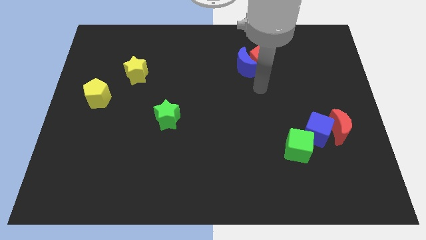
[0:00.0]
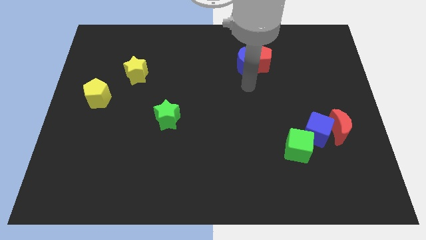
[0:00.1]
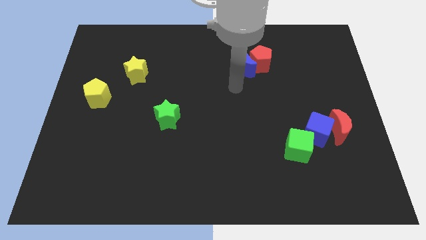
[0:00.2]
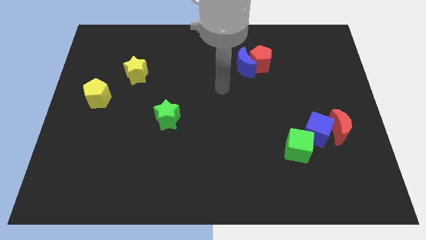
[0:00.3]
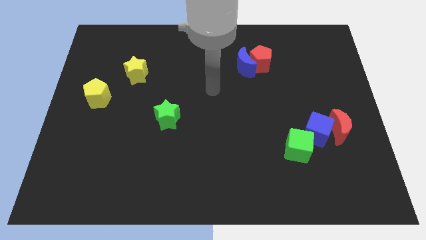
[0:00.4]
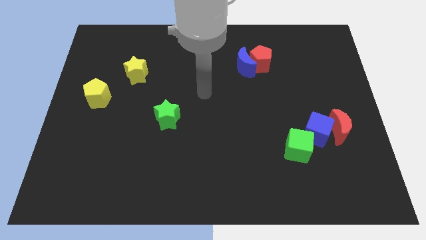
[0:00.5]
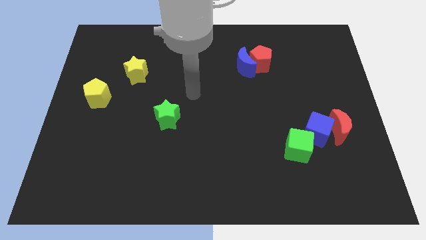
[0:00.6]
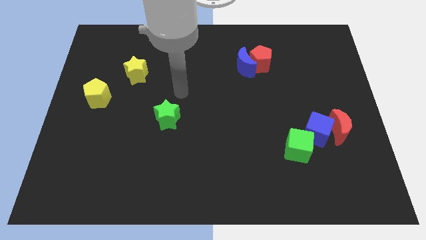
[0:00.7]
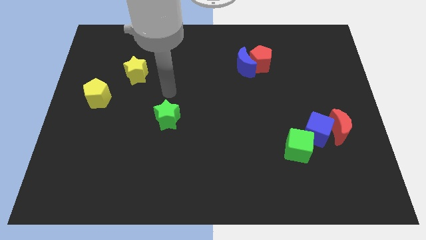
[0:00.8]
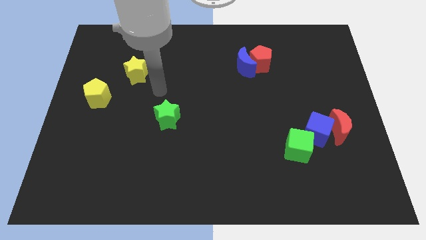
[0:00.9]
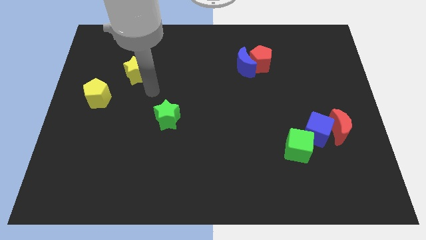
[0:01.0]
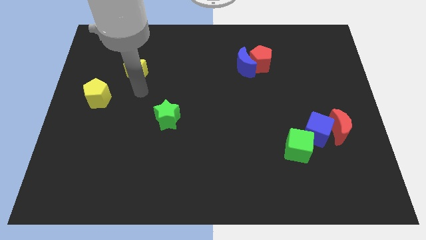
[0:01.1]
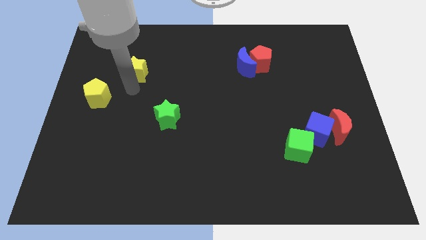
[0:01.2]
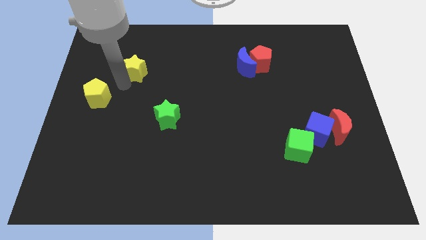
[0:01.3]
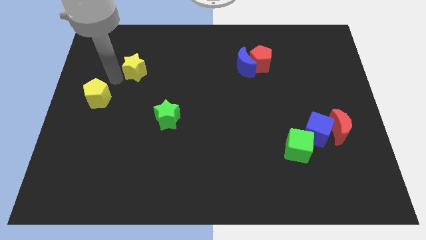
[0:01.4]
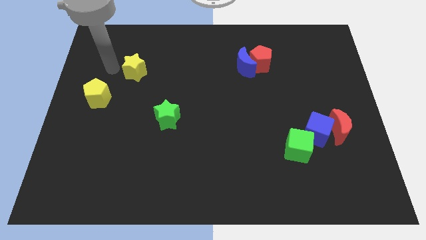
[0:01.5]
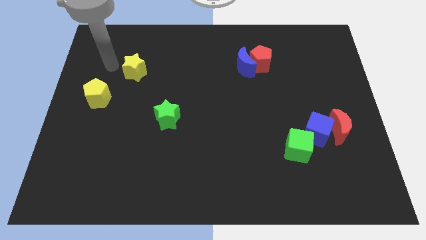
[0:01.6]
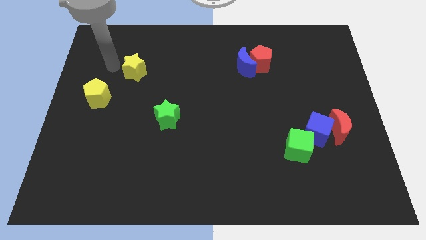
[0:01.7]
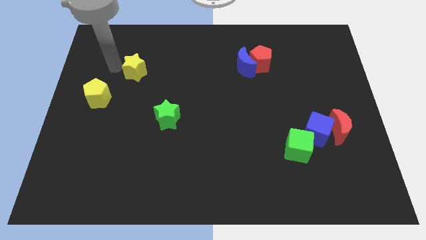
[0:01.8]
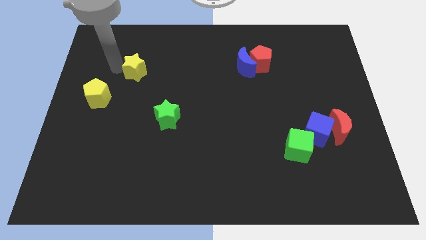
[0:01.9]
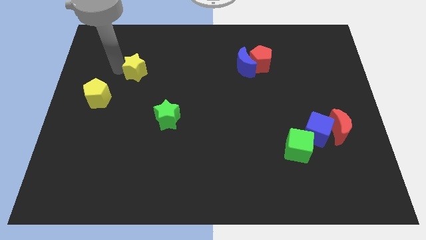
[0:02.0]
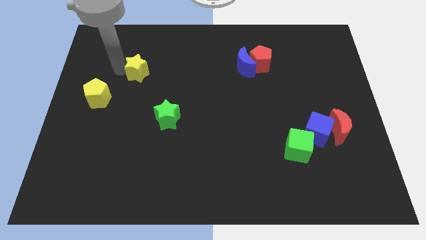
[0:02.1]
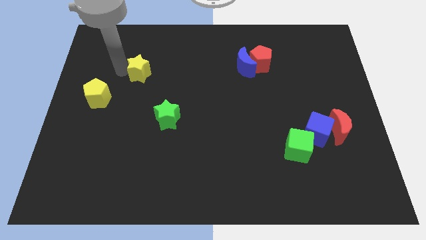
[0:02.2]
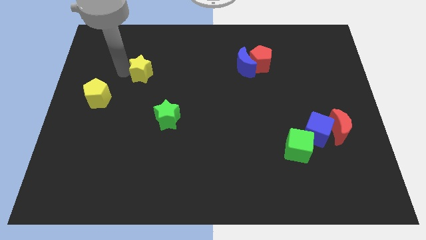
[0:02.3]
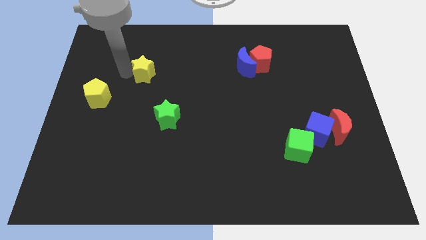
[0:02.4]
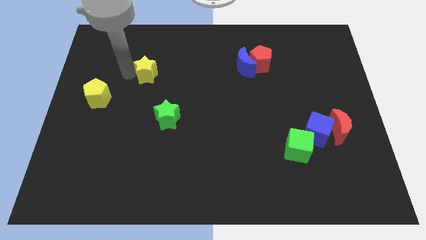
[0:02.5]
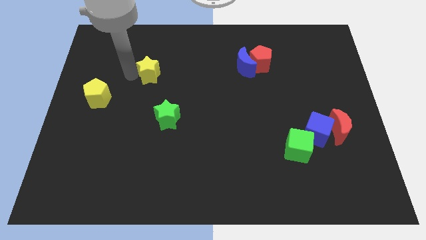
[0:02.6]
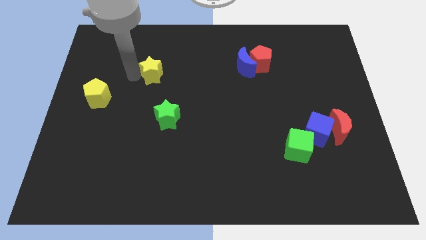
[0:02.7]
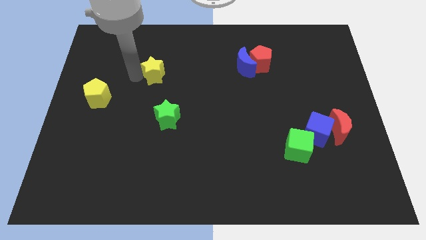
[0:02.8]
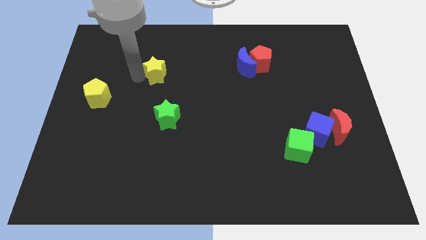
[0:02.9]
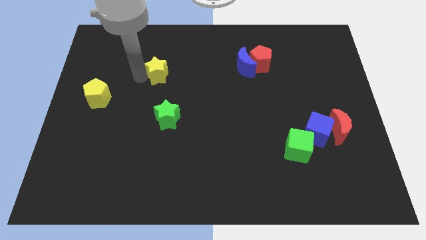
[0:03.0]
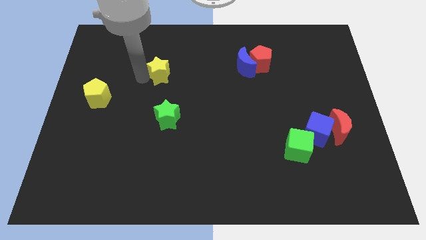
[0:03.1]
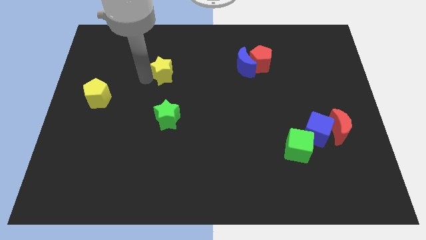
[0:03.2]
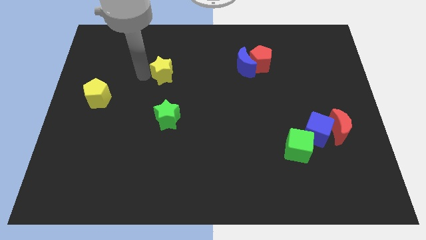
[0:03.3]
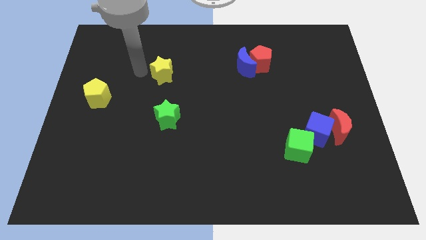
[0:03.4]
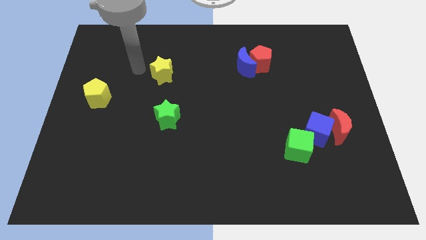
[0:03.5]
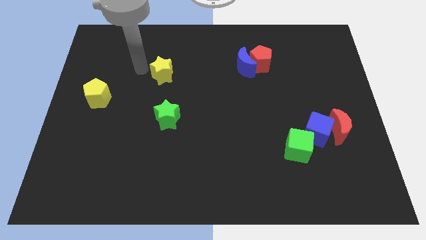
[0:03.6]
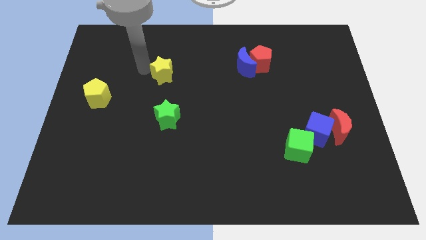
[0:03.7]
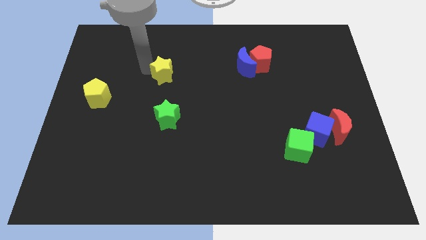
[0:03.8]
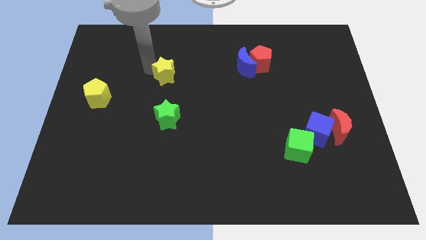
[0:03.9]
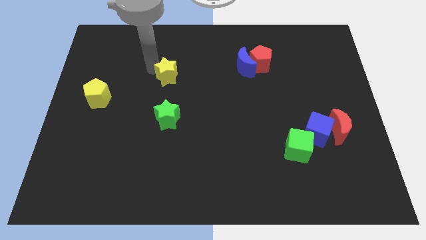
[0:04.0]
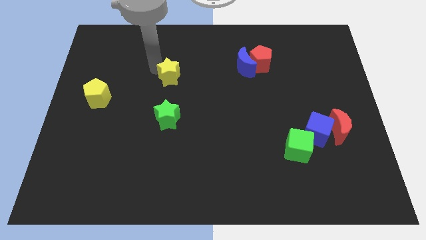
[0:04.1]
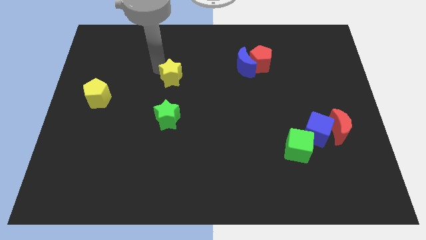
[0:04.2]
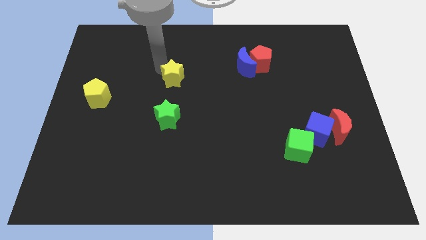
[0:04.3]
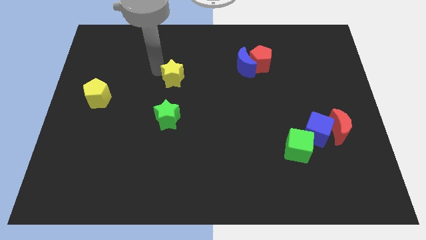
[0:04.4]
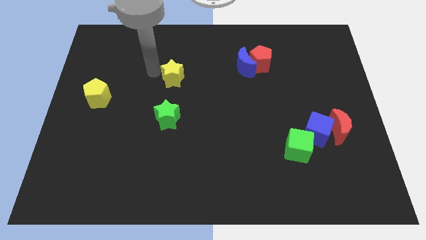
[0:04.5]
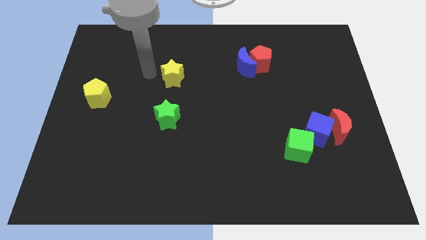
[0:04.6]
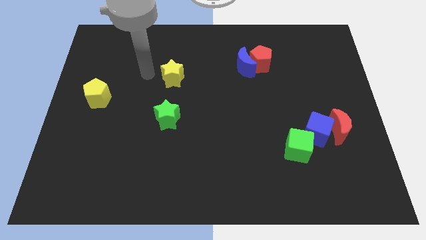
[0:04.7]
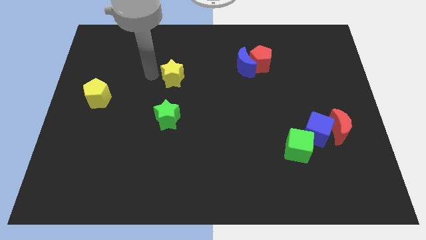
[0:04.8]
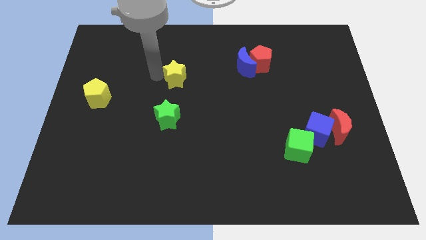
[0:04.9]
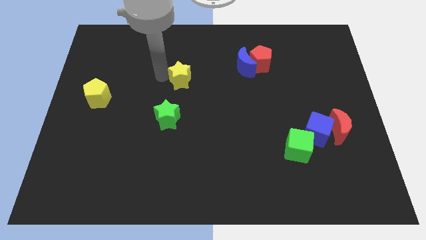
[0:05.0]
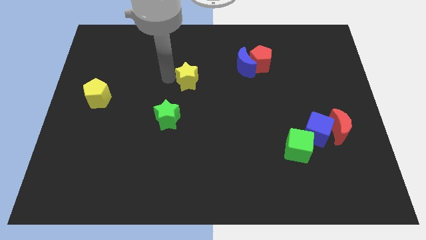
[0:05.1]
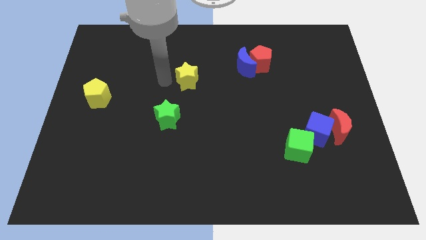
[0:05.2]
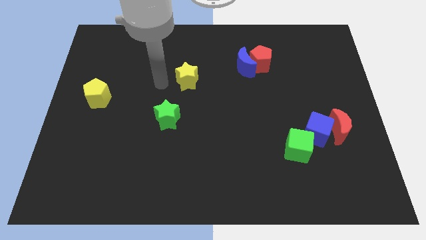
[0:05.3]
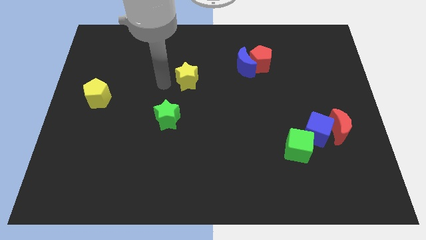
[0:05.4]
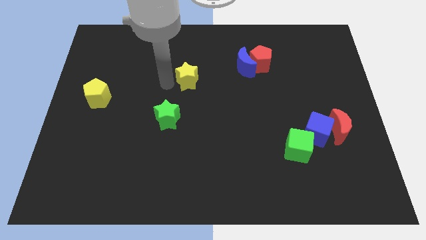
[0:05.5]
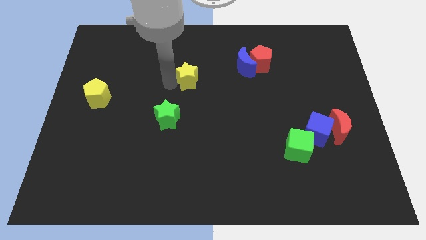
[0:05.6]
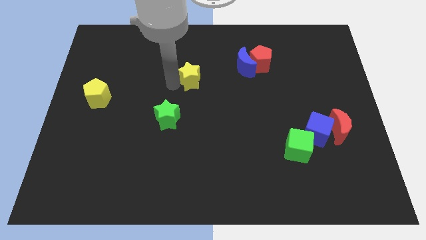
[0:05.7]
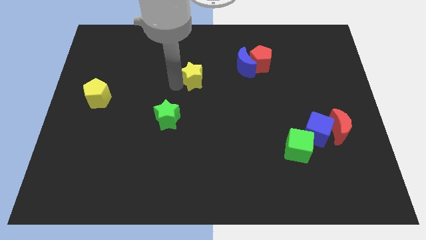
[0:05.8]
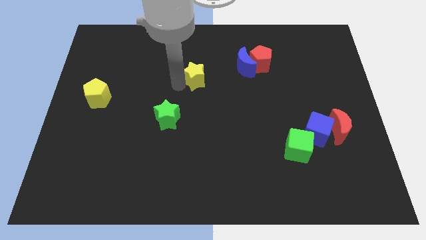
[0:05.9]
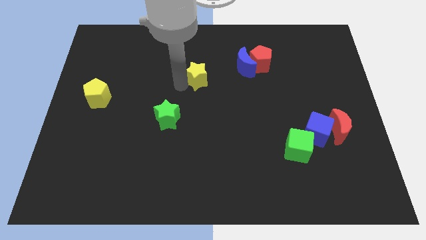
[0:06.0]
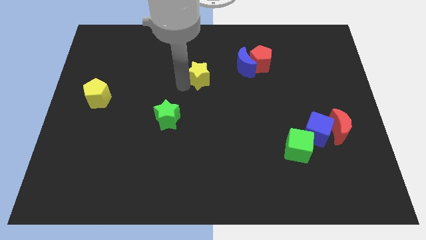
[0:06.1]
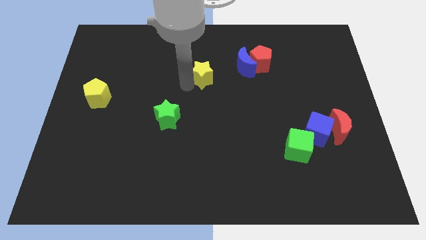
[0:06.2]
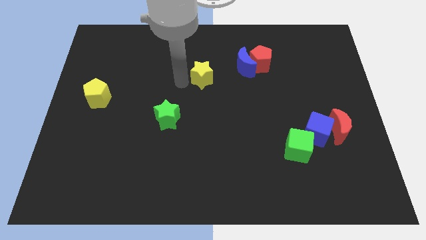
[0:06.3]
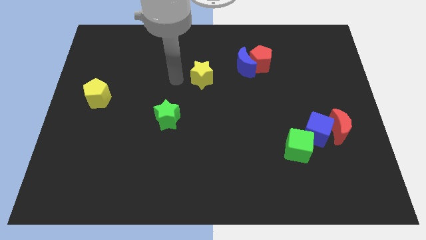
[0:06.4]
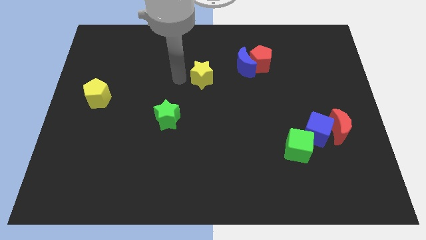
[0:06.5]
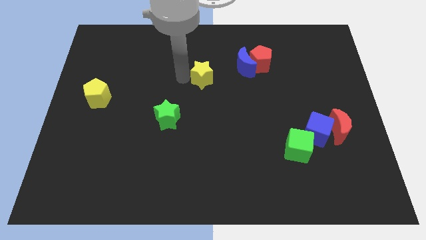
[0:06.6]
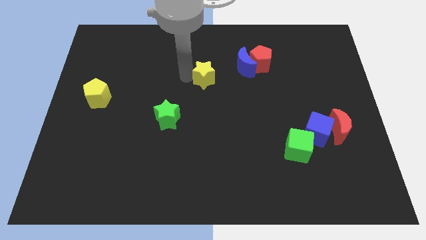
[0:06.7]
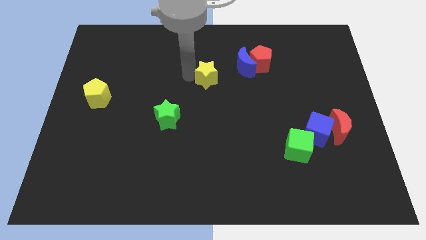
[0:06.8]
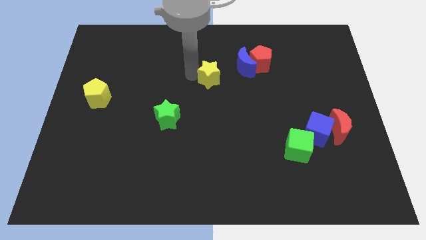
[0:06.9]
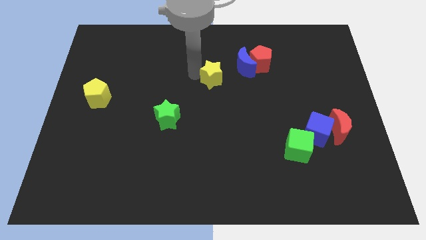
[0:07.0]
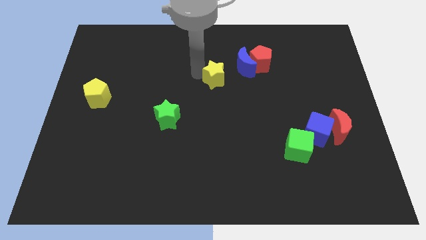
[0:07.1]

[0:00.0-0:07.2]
slide the yellow star to the right

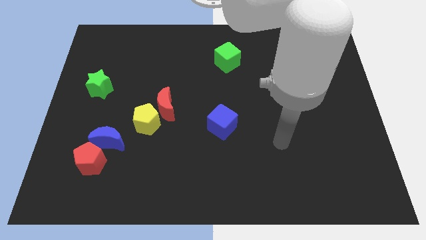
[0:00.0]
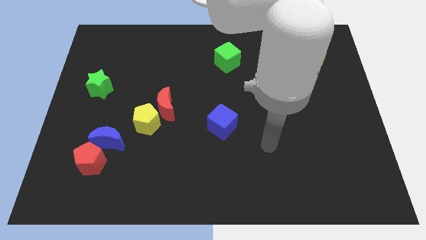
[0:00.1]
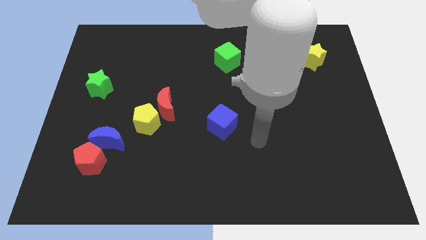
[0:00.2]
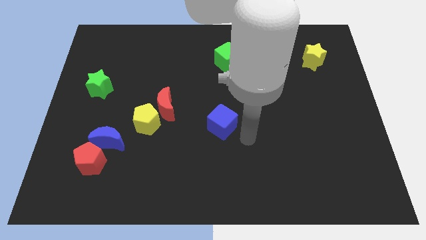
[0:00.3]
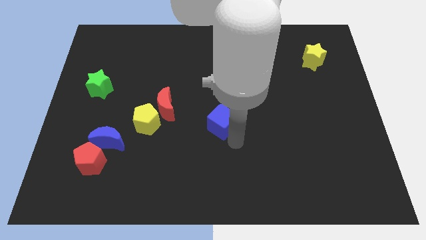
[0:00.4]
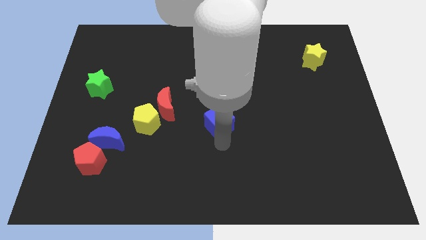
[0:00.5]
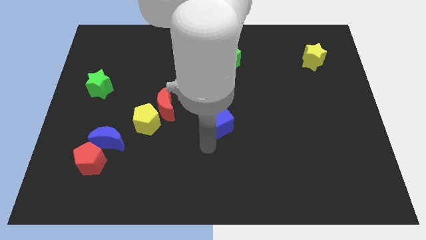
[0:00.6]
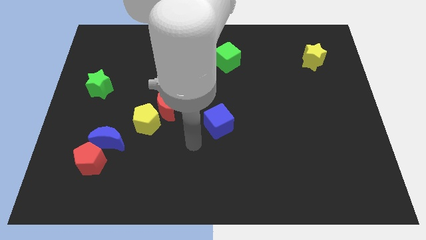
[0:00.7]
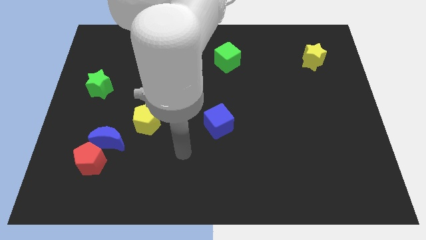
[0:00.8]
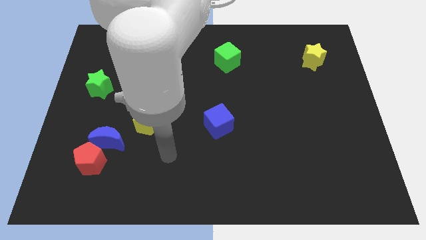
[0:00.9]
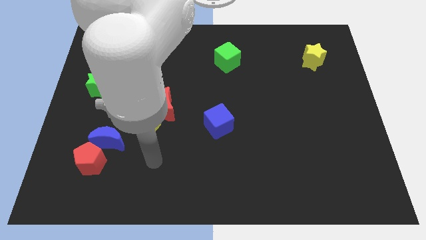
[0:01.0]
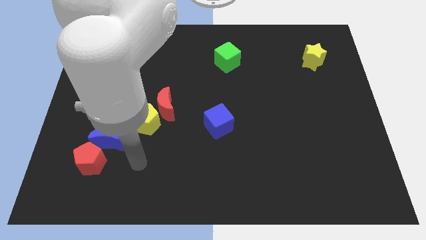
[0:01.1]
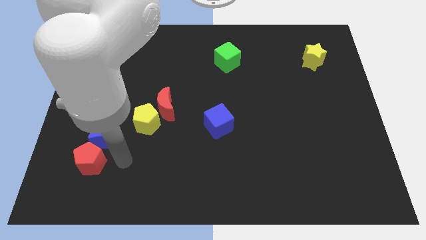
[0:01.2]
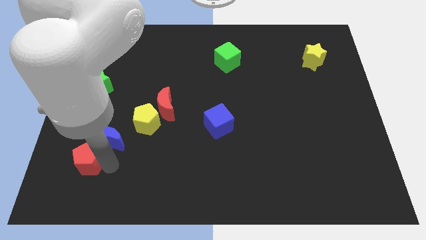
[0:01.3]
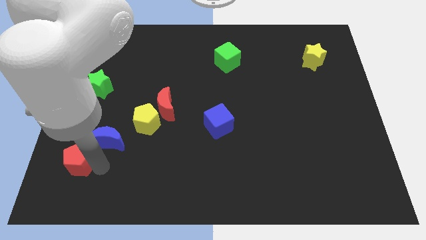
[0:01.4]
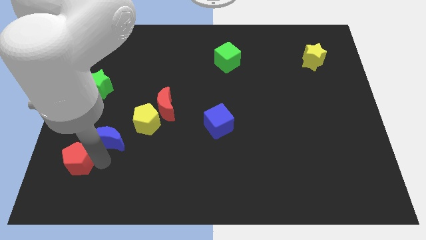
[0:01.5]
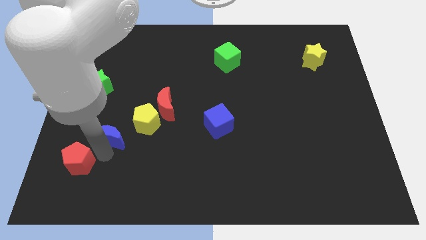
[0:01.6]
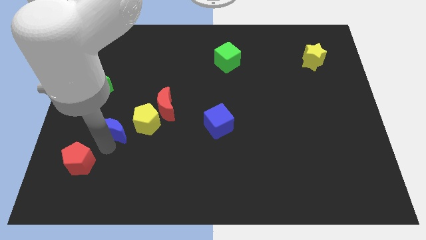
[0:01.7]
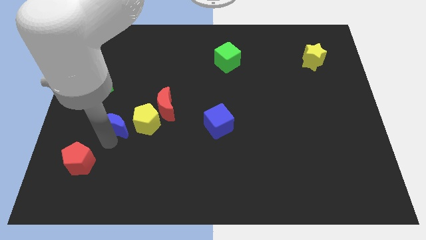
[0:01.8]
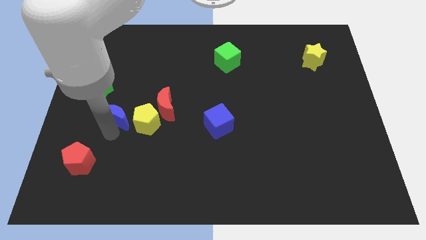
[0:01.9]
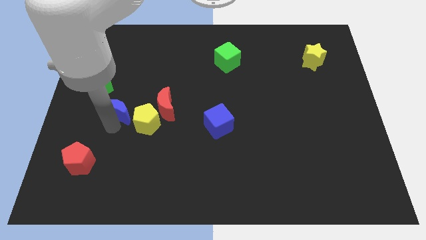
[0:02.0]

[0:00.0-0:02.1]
push the blue moon somewhat upwards
